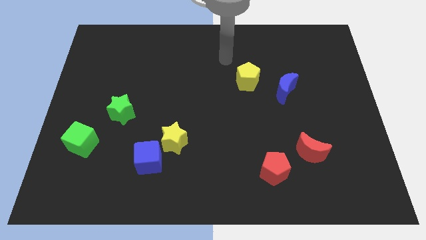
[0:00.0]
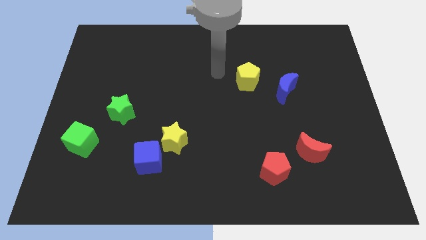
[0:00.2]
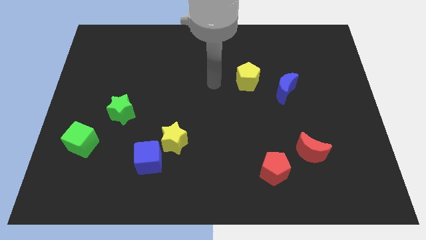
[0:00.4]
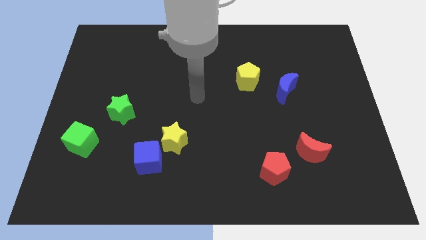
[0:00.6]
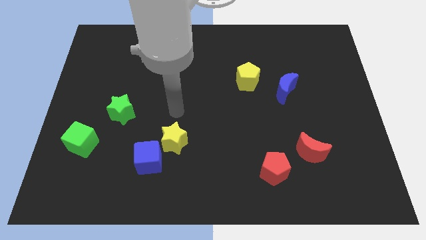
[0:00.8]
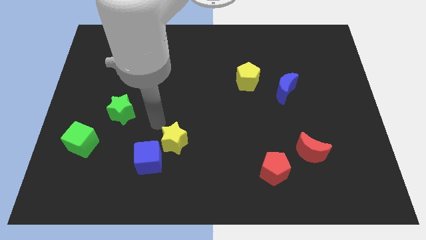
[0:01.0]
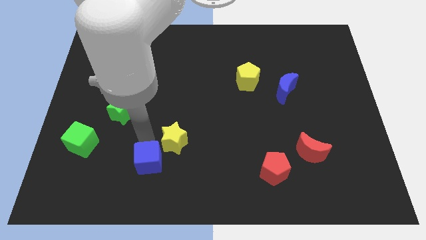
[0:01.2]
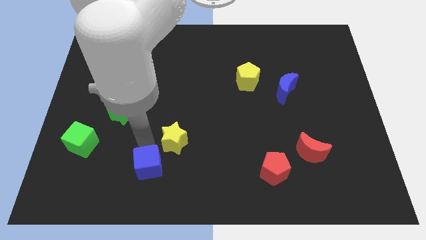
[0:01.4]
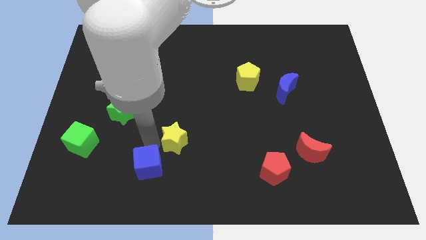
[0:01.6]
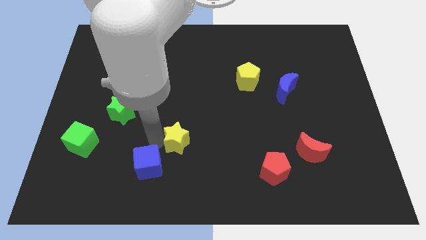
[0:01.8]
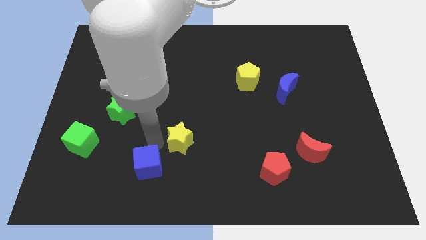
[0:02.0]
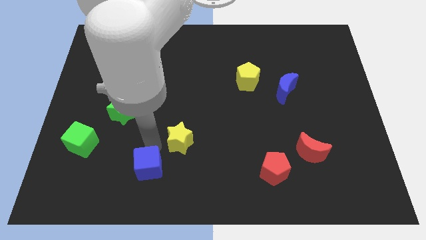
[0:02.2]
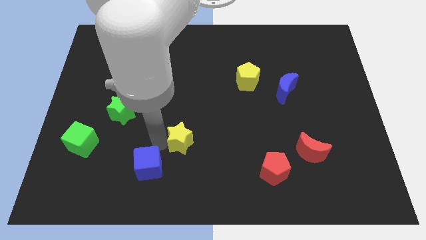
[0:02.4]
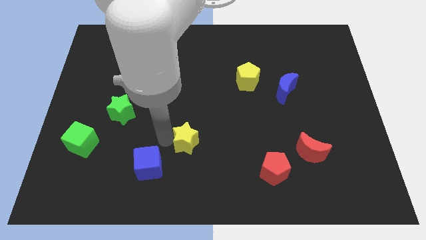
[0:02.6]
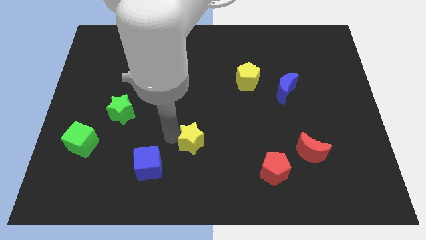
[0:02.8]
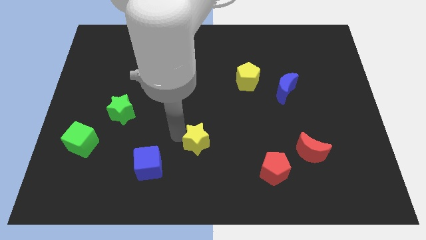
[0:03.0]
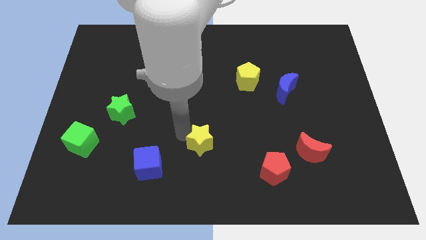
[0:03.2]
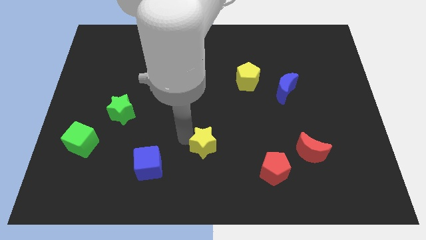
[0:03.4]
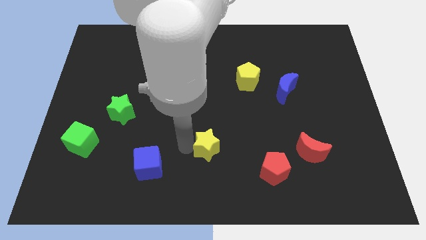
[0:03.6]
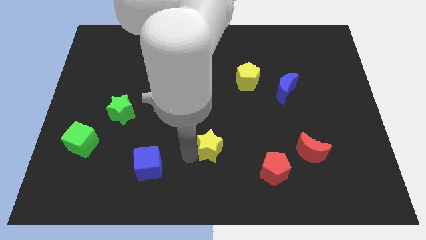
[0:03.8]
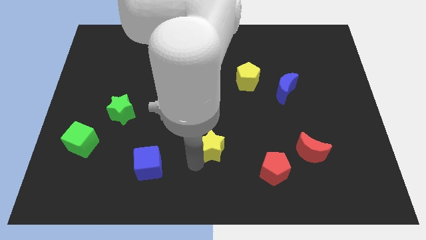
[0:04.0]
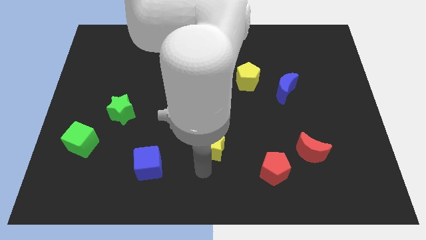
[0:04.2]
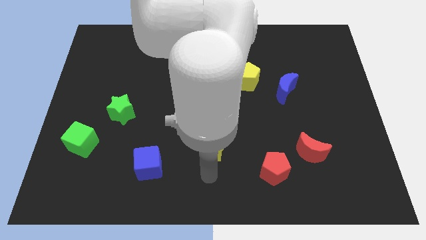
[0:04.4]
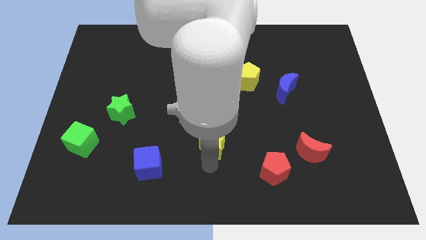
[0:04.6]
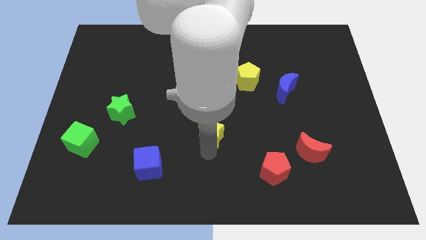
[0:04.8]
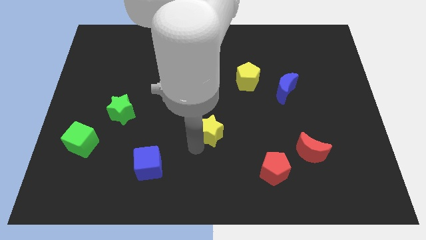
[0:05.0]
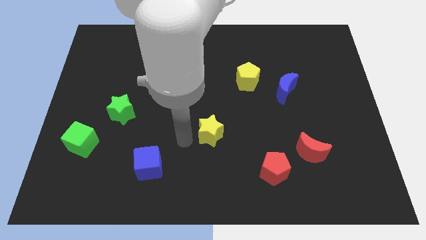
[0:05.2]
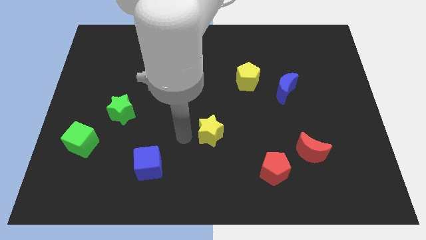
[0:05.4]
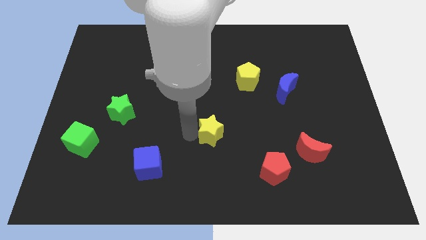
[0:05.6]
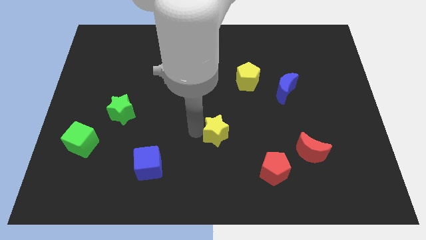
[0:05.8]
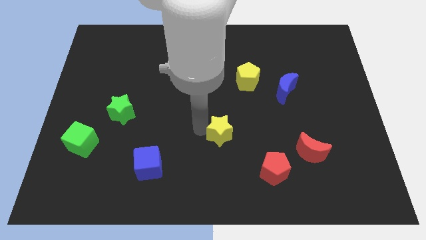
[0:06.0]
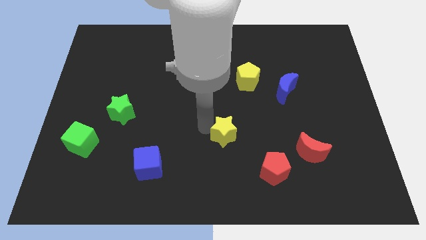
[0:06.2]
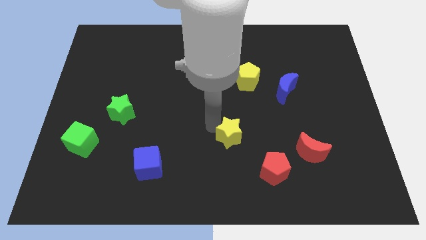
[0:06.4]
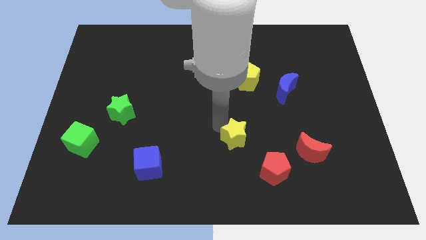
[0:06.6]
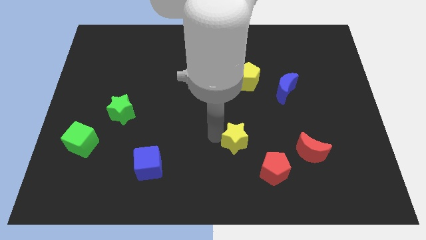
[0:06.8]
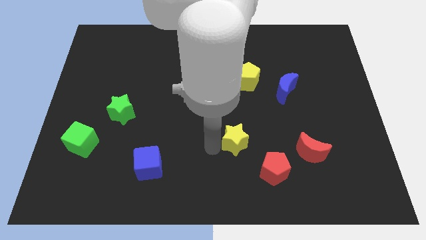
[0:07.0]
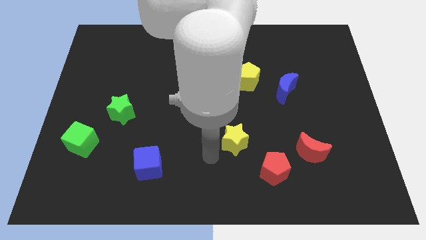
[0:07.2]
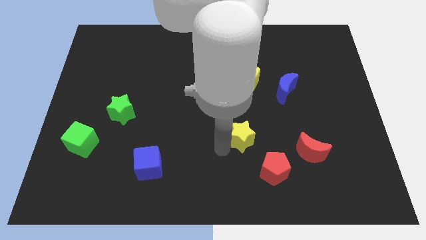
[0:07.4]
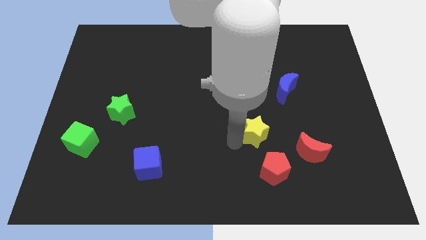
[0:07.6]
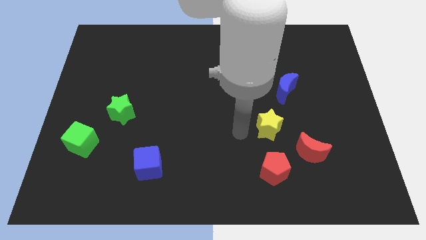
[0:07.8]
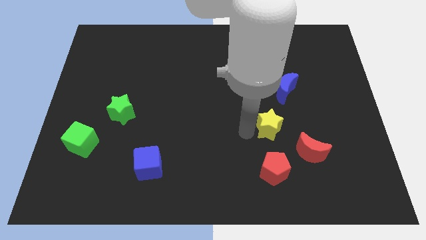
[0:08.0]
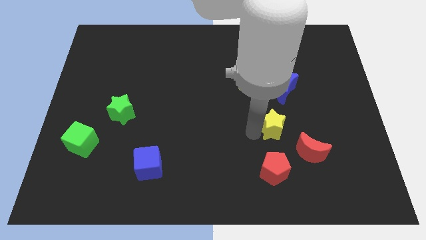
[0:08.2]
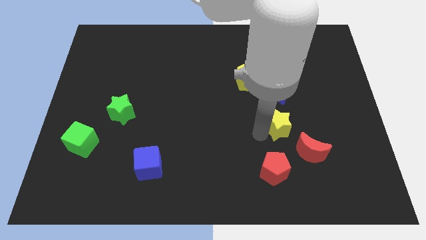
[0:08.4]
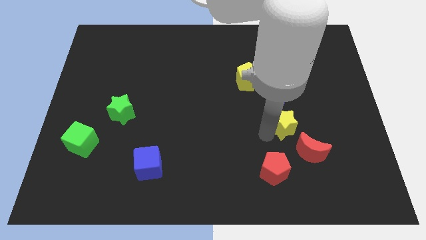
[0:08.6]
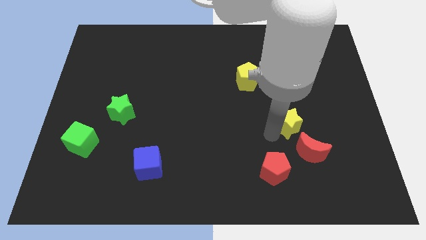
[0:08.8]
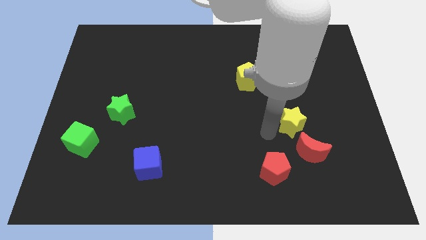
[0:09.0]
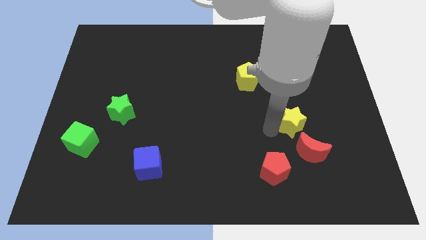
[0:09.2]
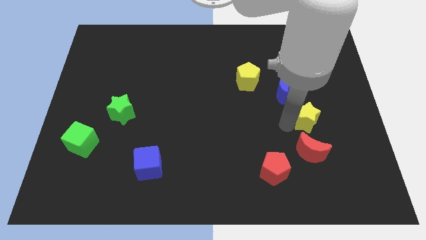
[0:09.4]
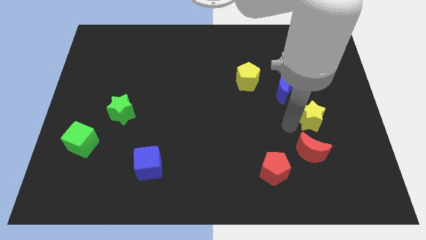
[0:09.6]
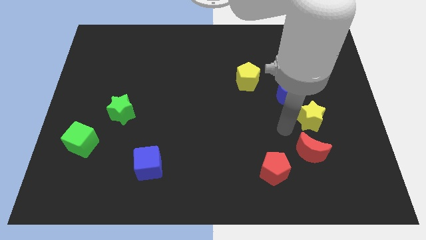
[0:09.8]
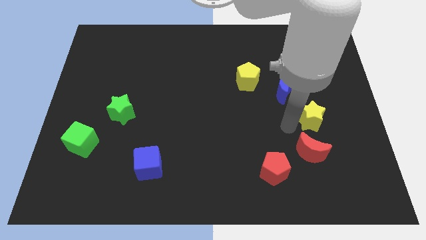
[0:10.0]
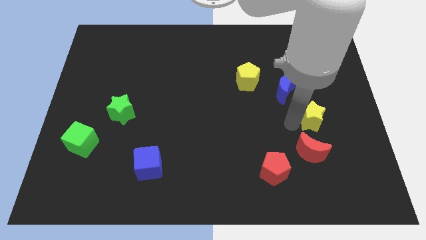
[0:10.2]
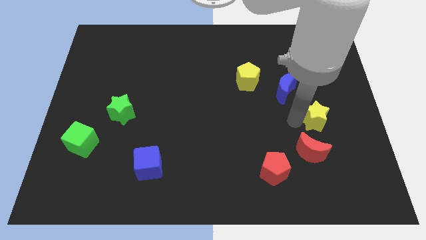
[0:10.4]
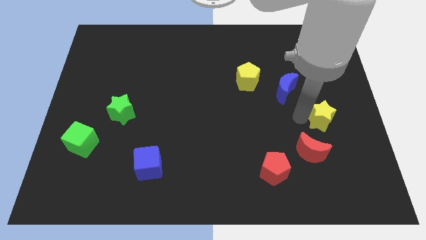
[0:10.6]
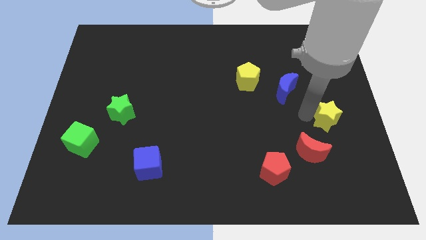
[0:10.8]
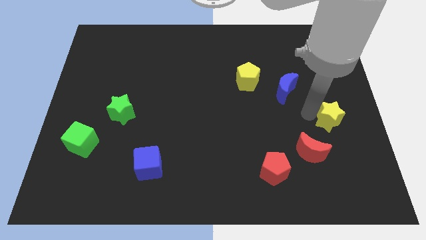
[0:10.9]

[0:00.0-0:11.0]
slide the yellow star to the right side

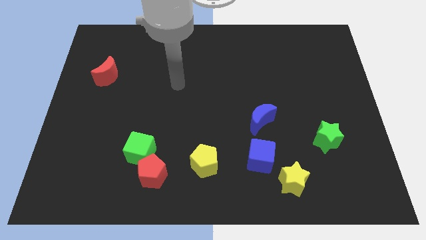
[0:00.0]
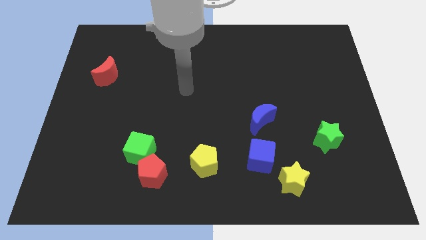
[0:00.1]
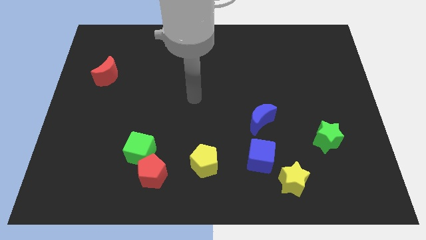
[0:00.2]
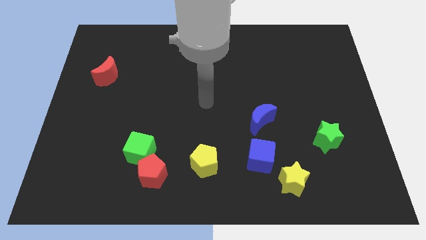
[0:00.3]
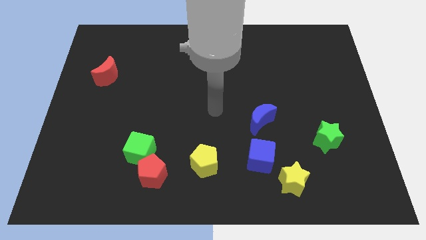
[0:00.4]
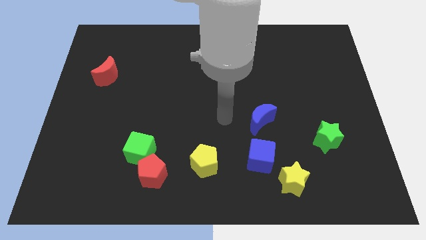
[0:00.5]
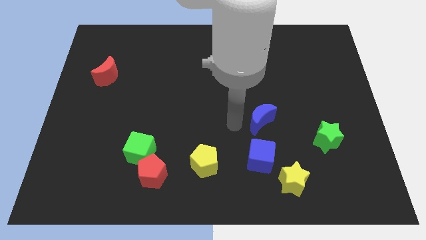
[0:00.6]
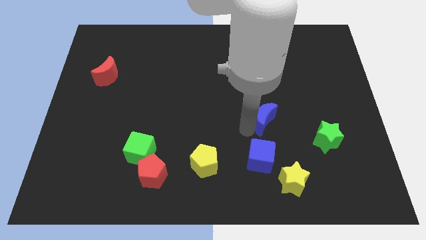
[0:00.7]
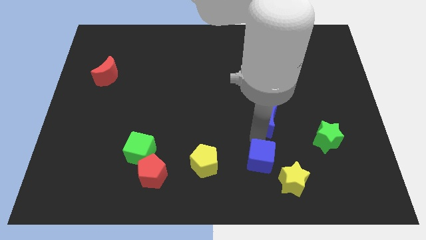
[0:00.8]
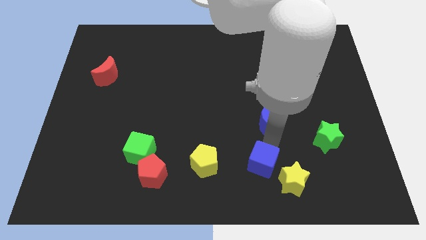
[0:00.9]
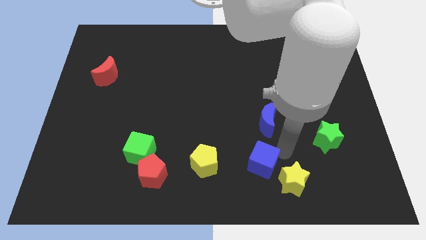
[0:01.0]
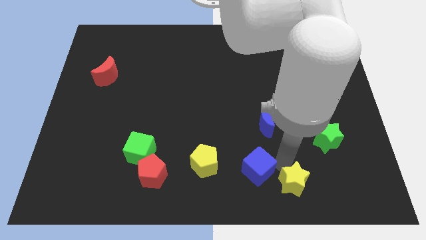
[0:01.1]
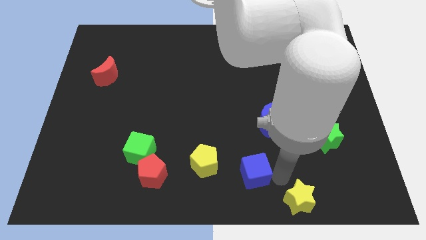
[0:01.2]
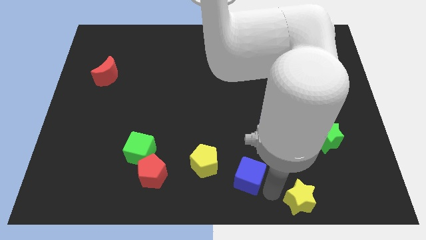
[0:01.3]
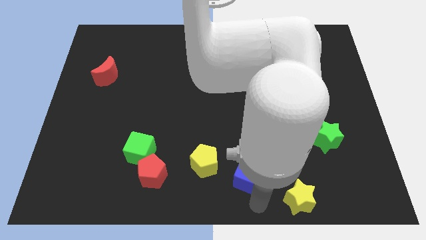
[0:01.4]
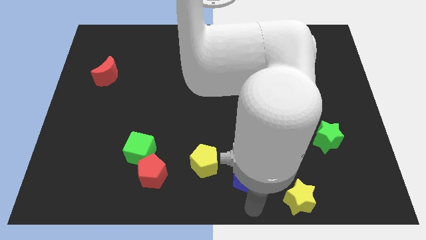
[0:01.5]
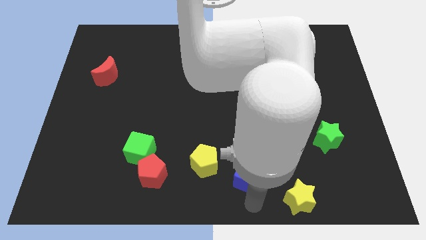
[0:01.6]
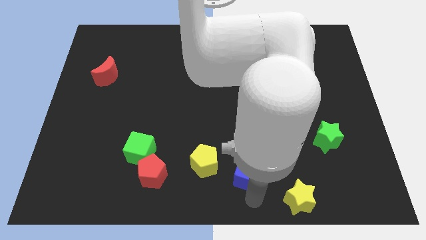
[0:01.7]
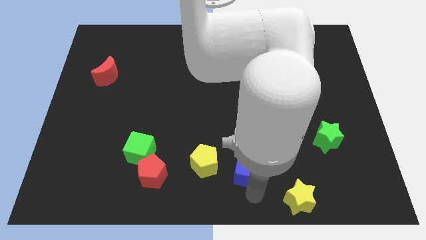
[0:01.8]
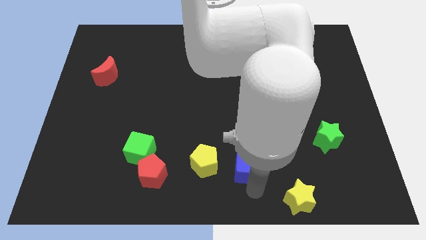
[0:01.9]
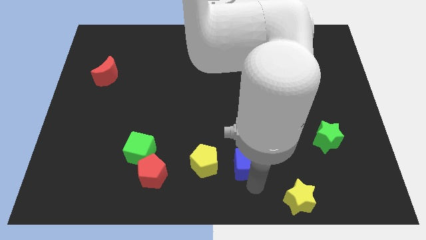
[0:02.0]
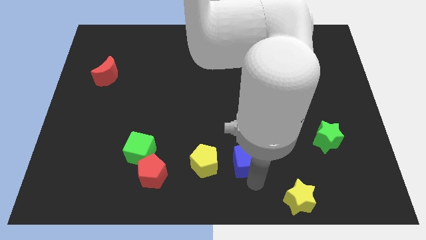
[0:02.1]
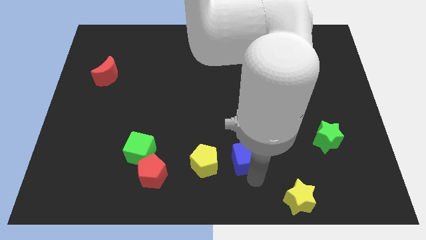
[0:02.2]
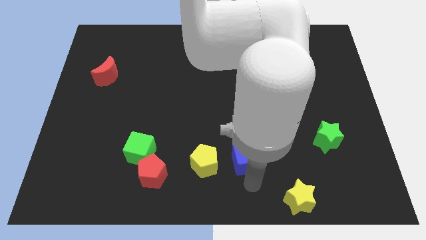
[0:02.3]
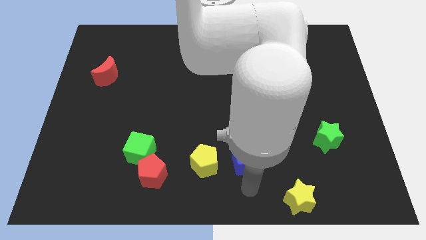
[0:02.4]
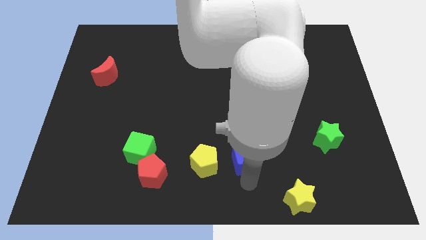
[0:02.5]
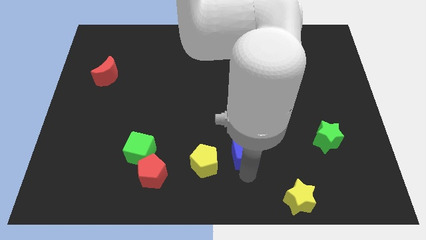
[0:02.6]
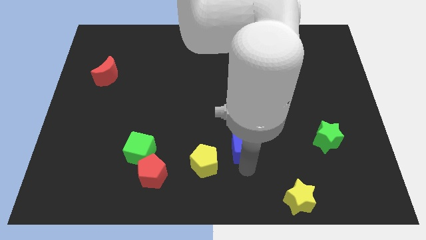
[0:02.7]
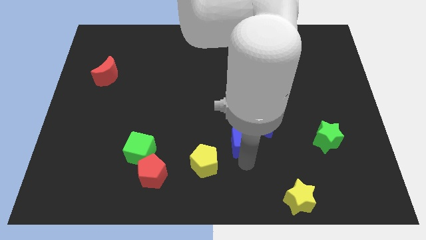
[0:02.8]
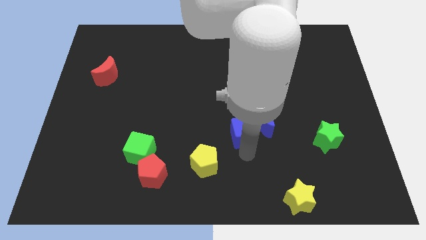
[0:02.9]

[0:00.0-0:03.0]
move the blue cube to the middle of the board
